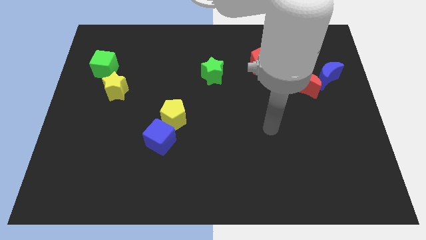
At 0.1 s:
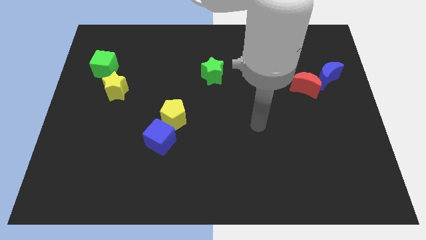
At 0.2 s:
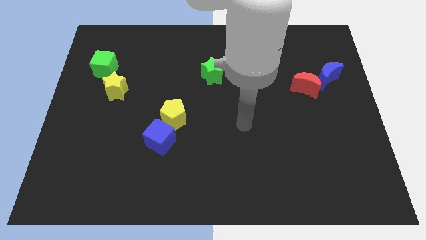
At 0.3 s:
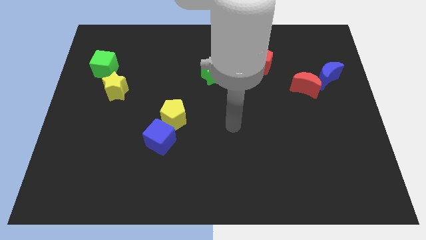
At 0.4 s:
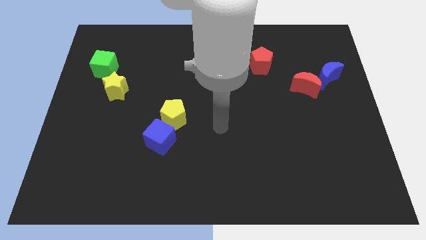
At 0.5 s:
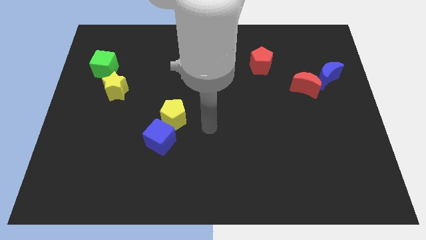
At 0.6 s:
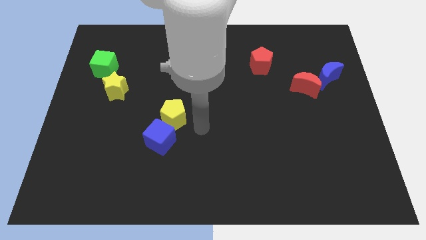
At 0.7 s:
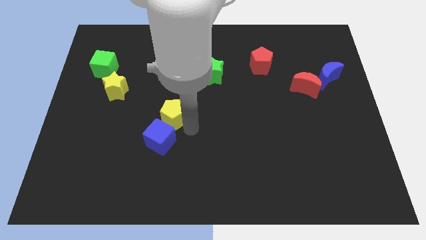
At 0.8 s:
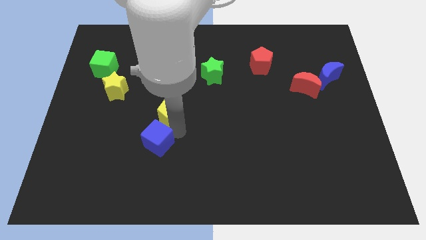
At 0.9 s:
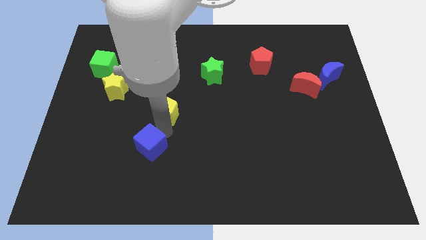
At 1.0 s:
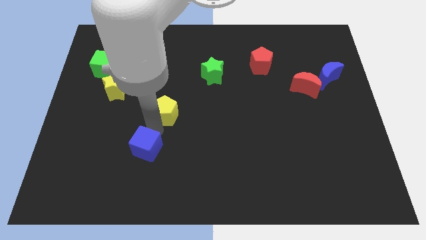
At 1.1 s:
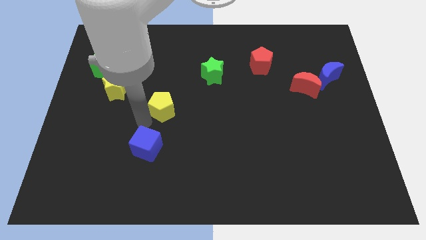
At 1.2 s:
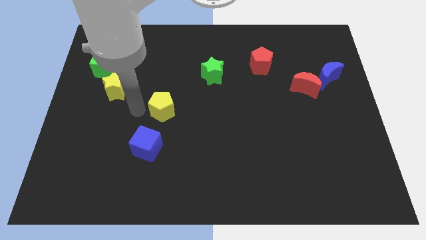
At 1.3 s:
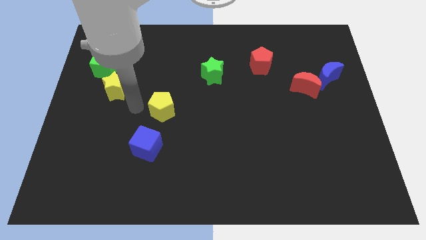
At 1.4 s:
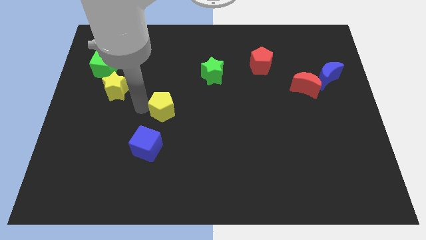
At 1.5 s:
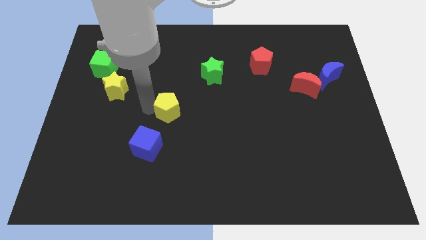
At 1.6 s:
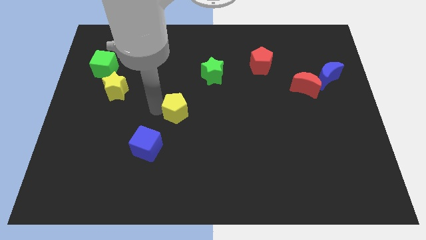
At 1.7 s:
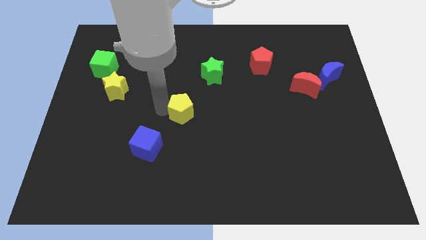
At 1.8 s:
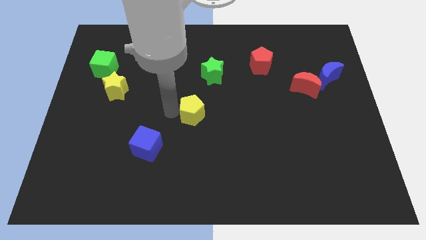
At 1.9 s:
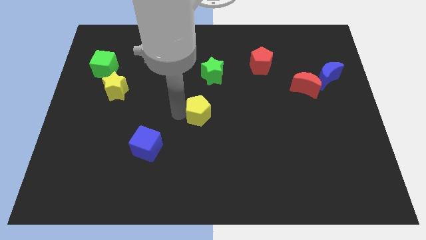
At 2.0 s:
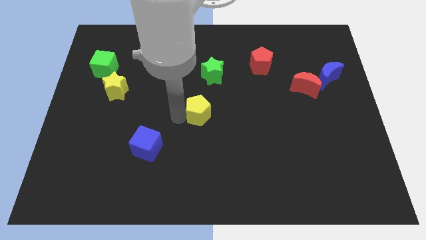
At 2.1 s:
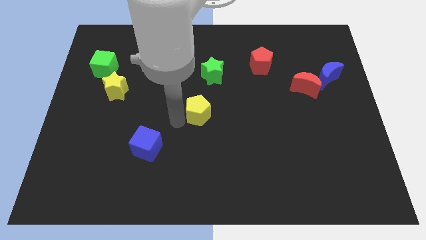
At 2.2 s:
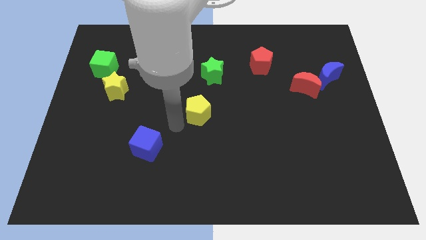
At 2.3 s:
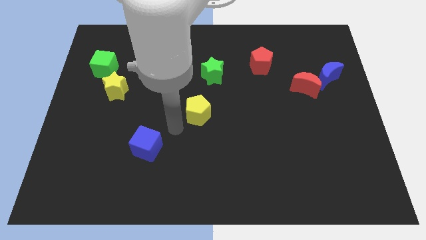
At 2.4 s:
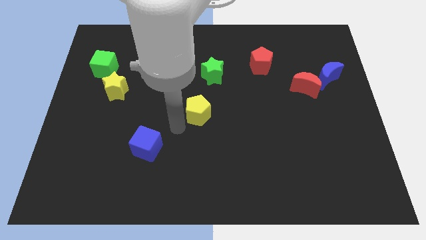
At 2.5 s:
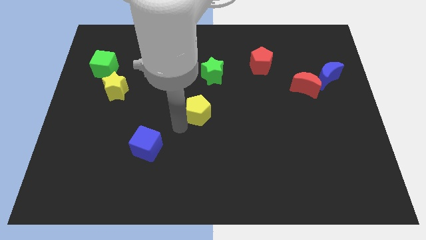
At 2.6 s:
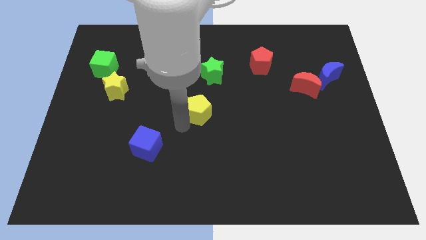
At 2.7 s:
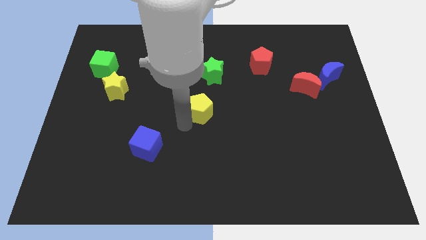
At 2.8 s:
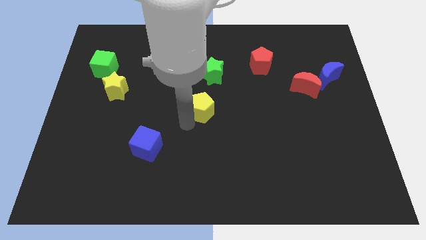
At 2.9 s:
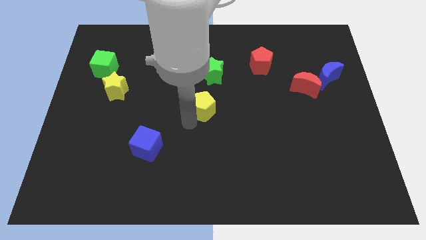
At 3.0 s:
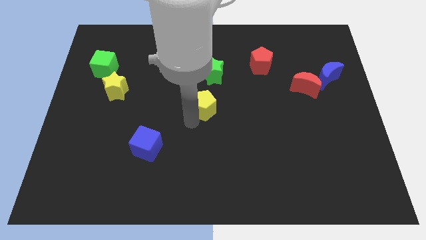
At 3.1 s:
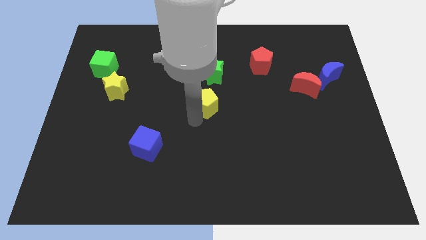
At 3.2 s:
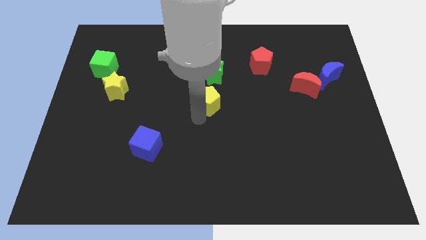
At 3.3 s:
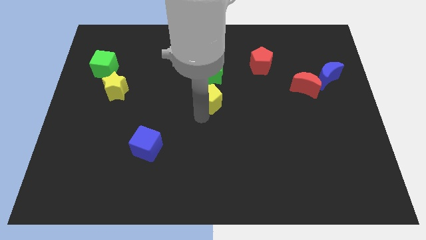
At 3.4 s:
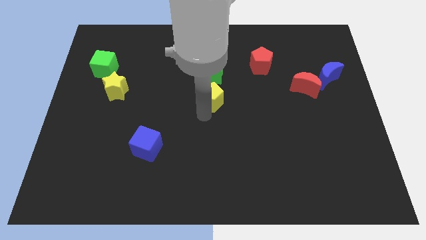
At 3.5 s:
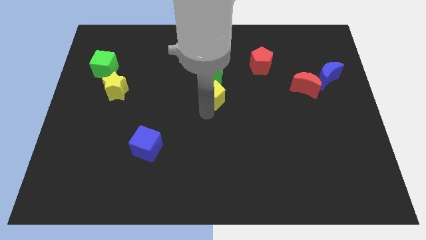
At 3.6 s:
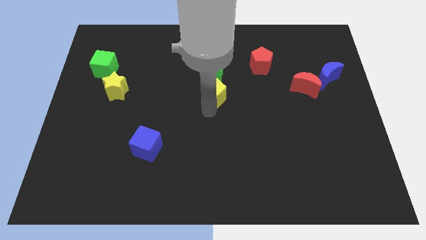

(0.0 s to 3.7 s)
slide the yellow pentagon to the bottom right side of the green star

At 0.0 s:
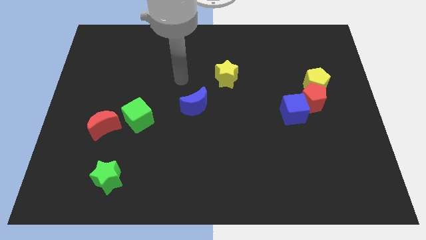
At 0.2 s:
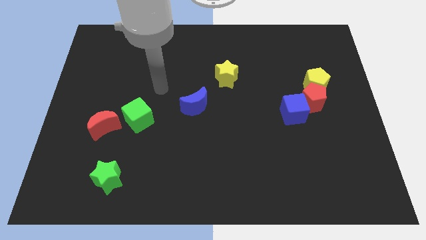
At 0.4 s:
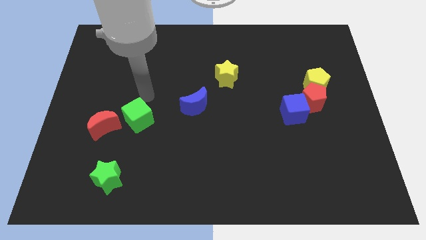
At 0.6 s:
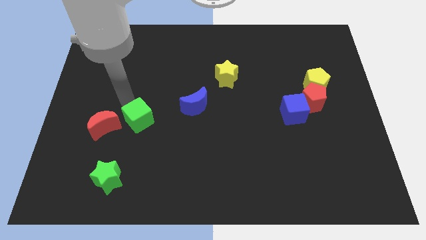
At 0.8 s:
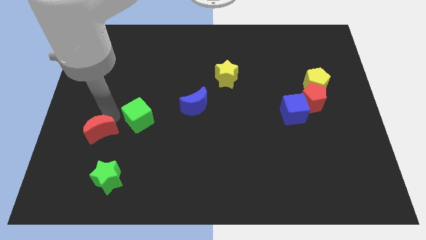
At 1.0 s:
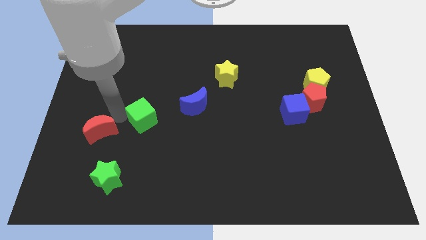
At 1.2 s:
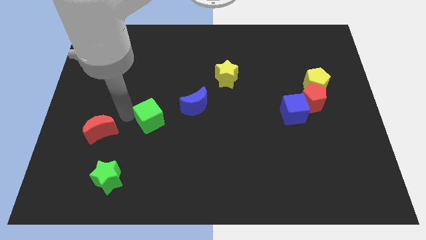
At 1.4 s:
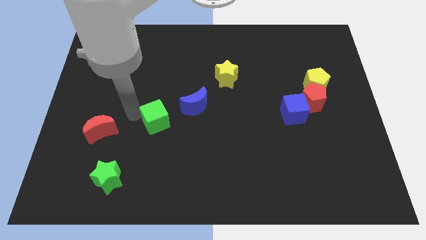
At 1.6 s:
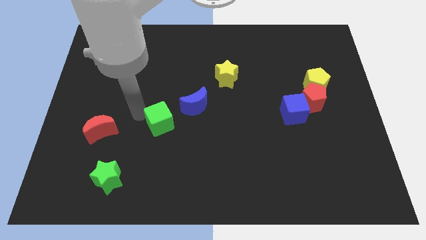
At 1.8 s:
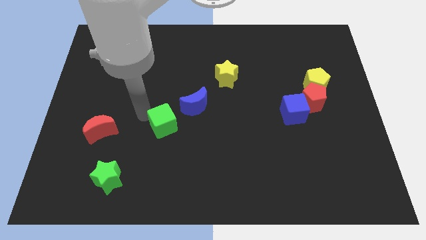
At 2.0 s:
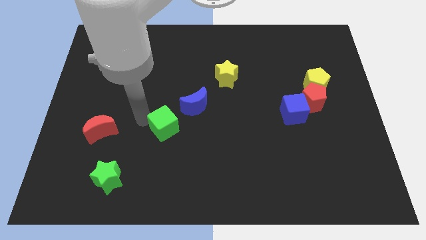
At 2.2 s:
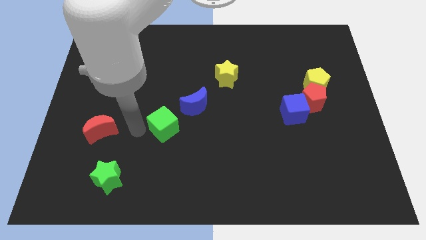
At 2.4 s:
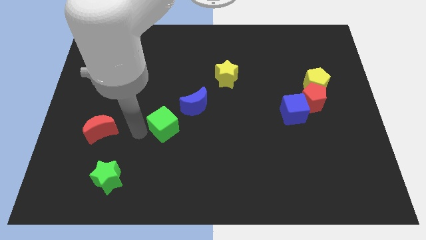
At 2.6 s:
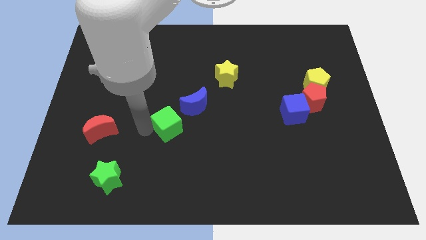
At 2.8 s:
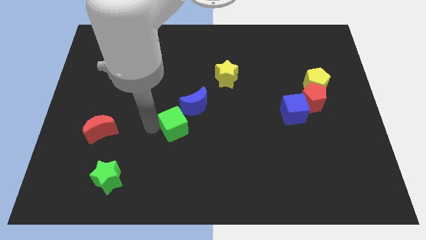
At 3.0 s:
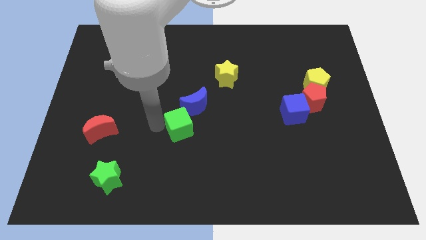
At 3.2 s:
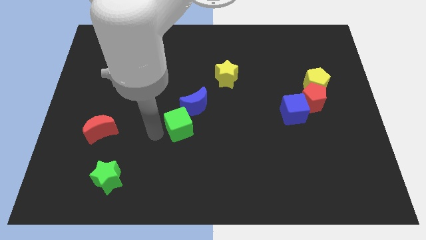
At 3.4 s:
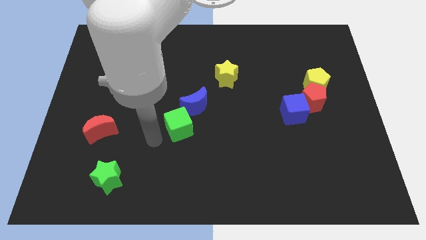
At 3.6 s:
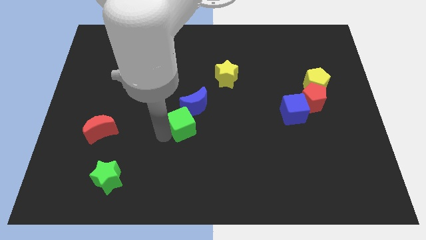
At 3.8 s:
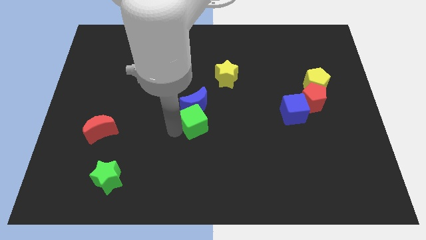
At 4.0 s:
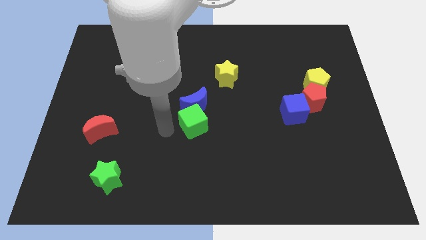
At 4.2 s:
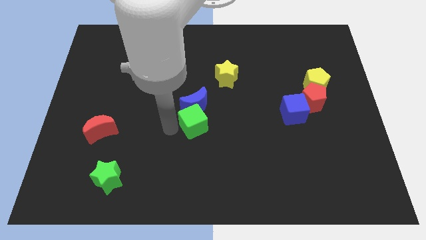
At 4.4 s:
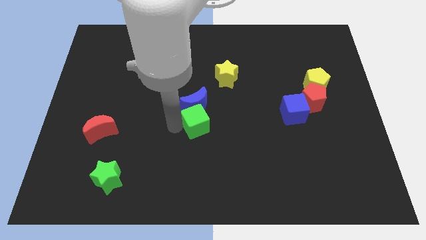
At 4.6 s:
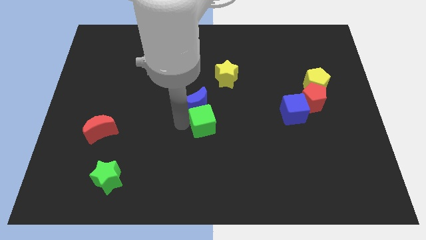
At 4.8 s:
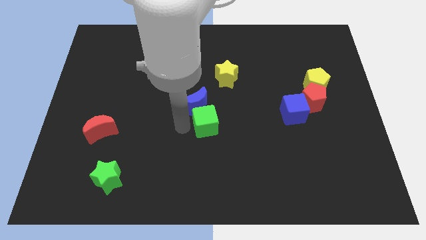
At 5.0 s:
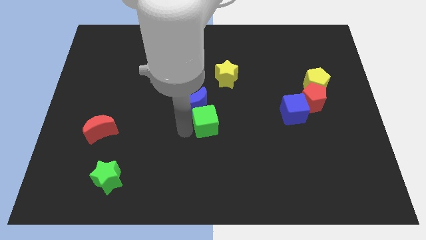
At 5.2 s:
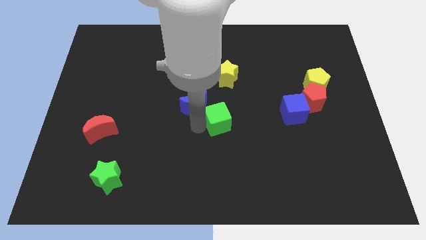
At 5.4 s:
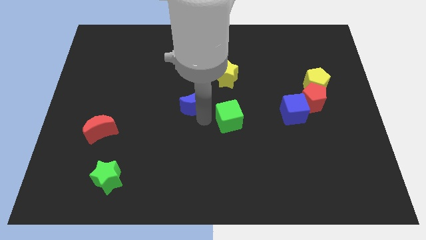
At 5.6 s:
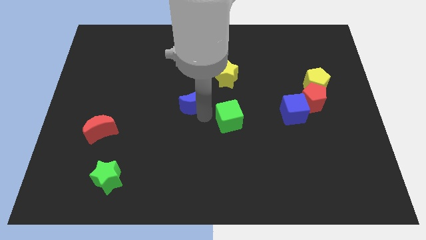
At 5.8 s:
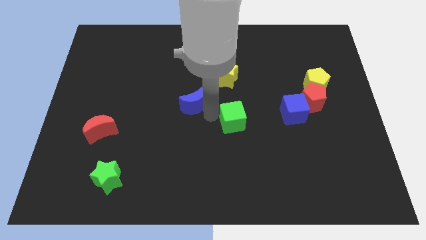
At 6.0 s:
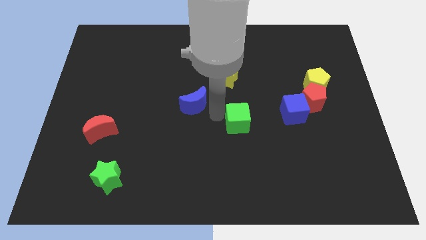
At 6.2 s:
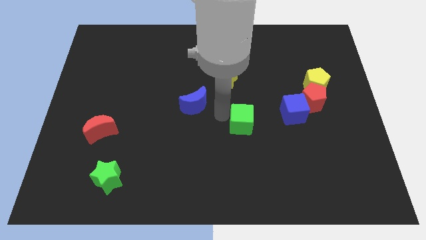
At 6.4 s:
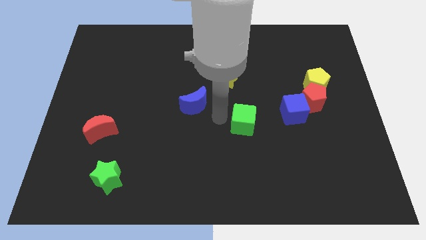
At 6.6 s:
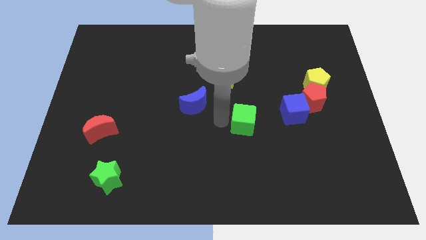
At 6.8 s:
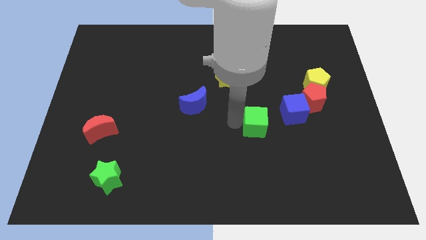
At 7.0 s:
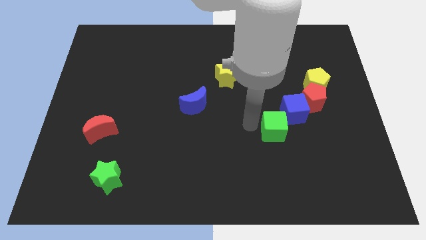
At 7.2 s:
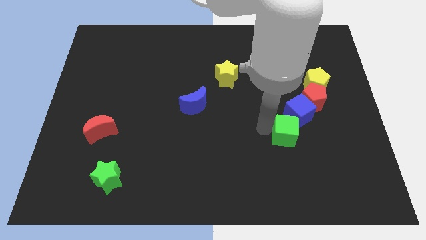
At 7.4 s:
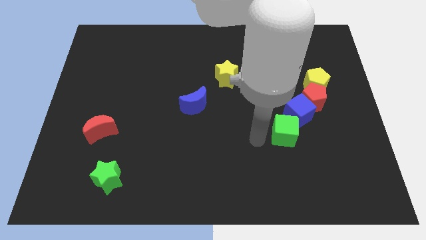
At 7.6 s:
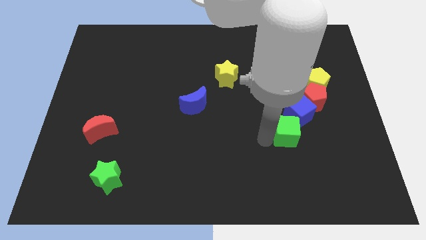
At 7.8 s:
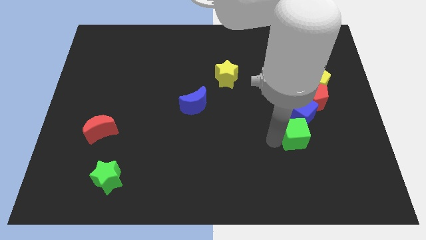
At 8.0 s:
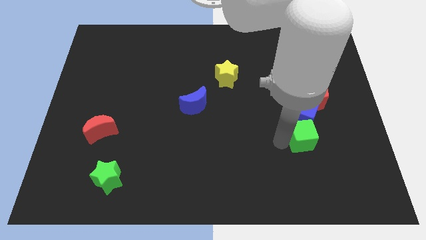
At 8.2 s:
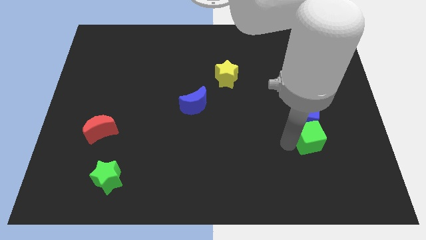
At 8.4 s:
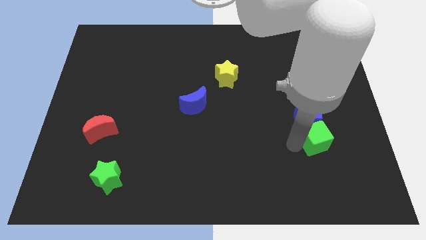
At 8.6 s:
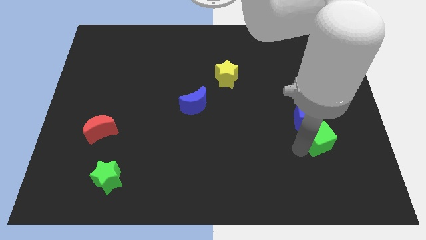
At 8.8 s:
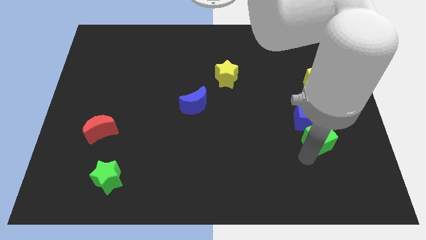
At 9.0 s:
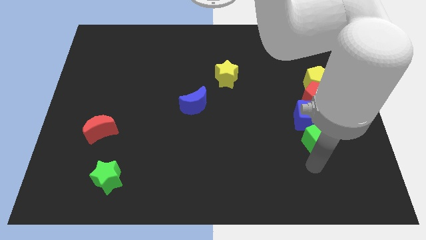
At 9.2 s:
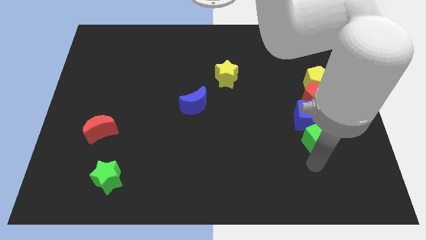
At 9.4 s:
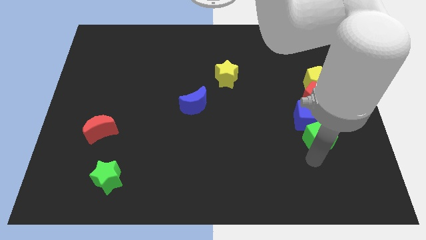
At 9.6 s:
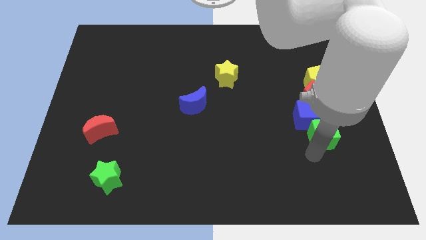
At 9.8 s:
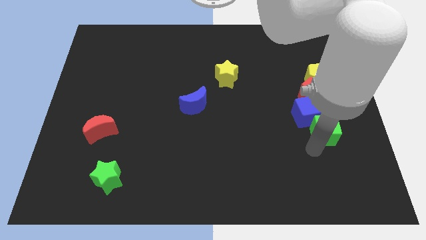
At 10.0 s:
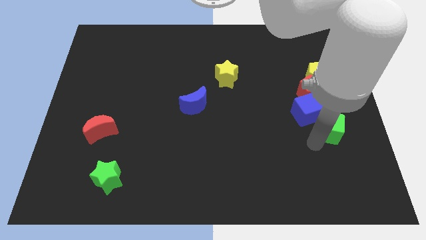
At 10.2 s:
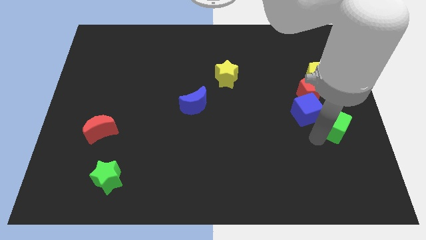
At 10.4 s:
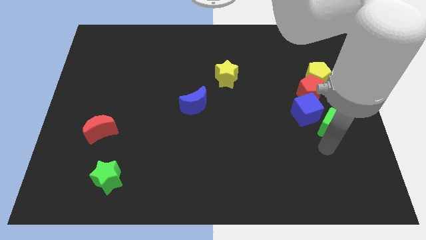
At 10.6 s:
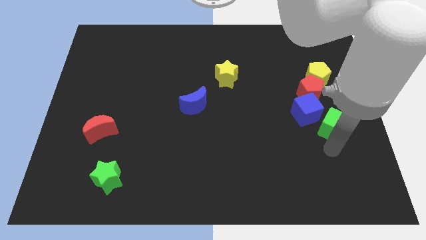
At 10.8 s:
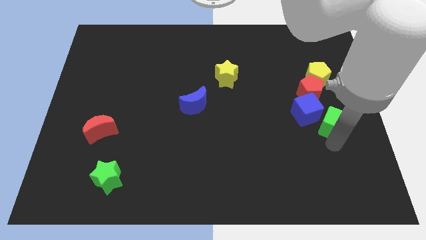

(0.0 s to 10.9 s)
push the green cube to the bottom right of the red pentagon
